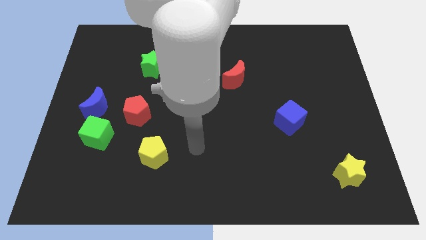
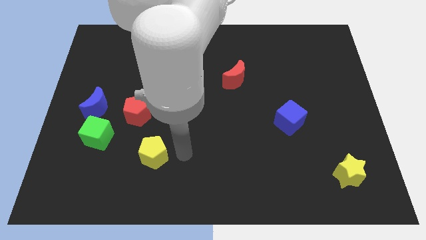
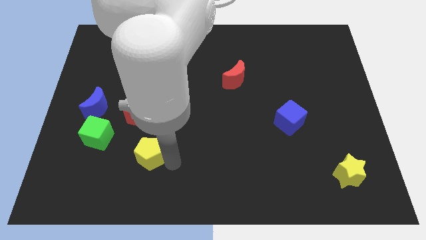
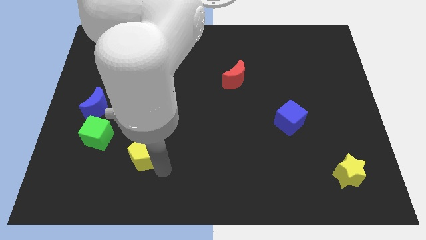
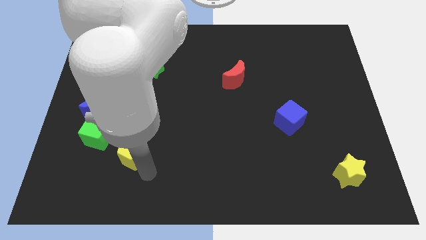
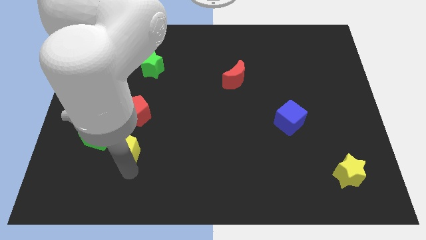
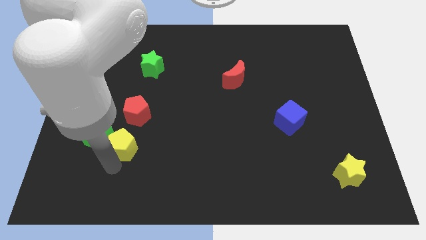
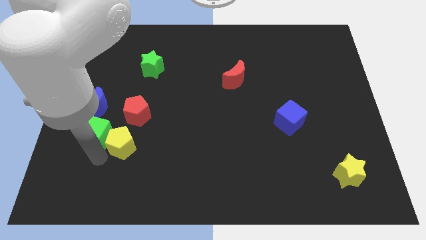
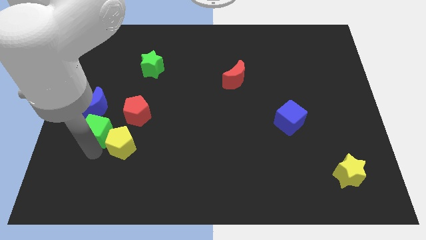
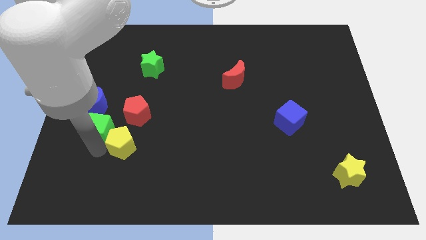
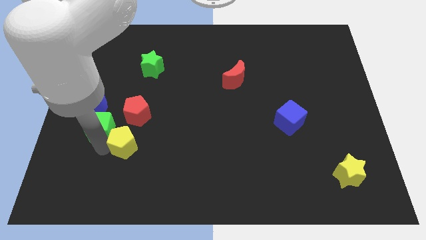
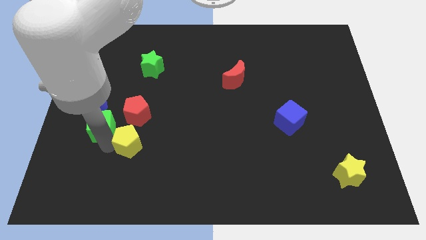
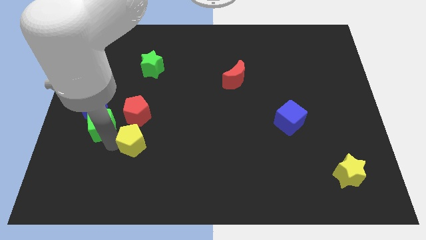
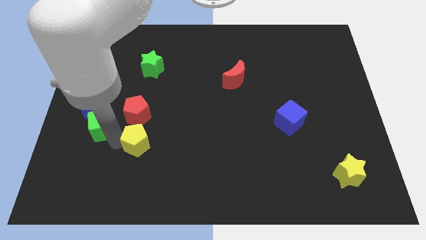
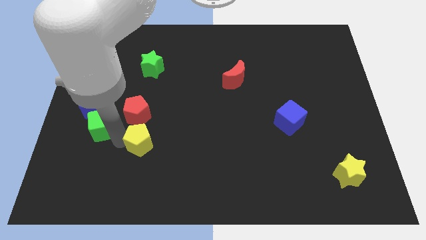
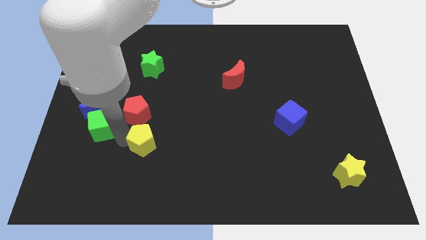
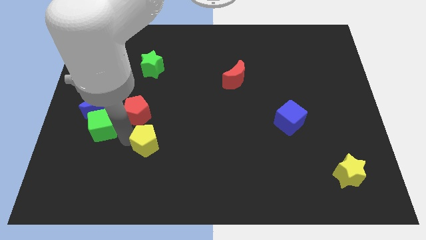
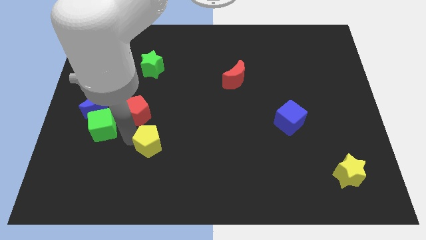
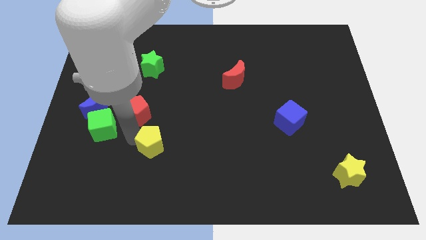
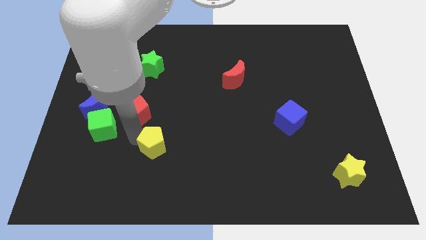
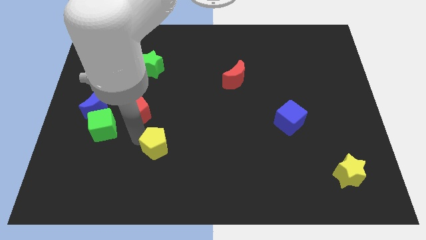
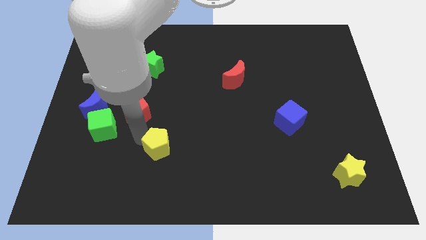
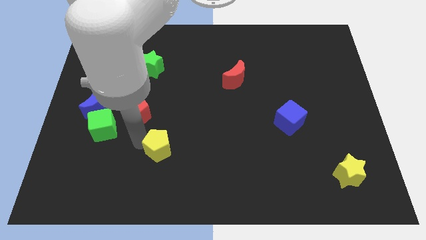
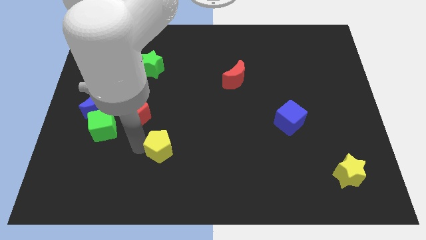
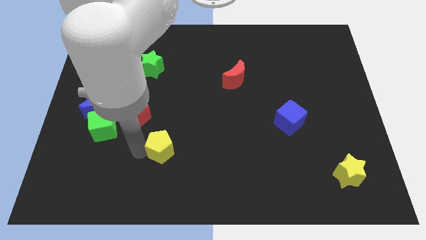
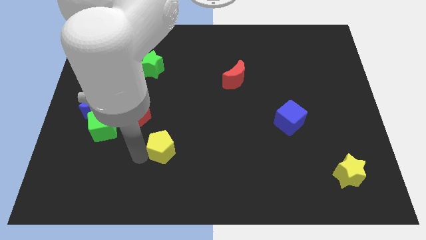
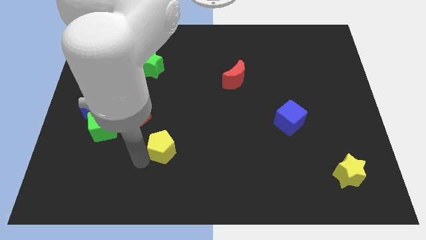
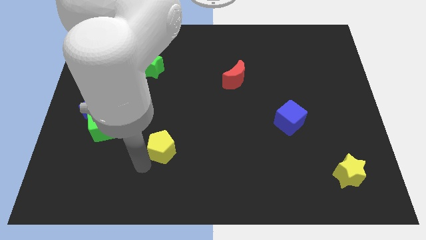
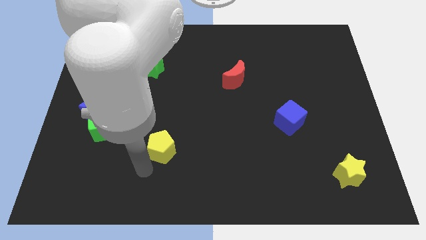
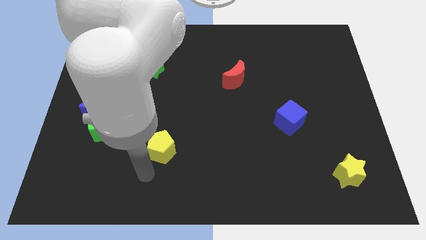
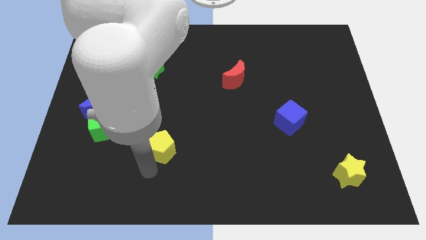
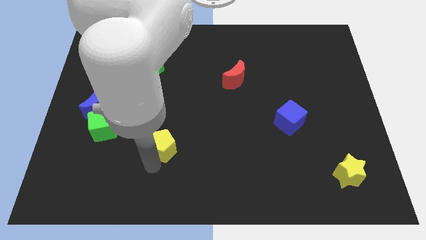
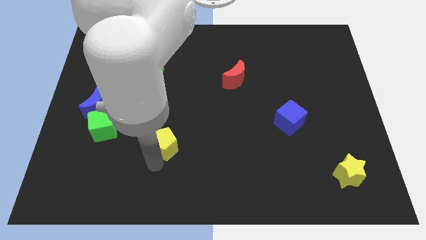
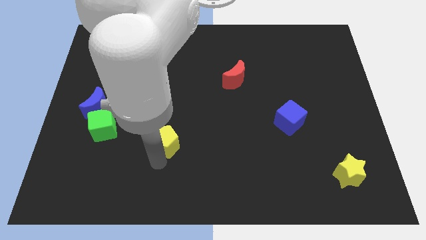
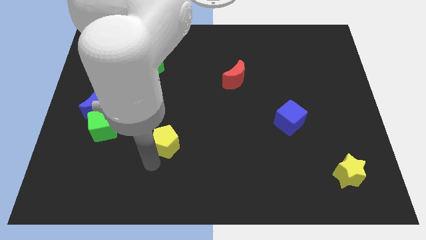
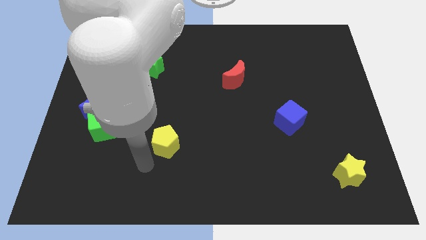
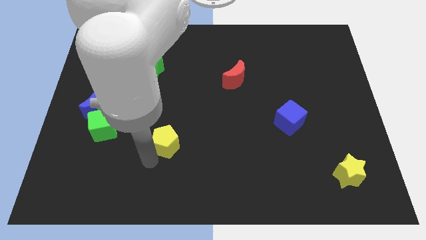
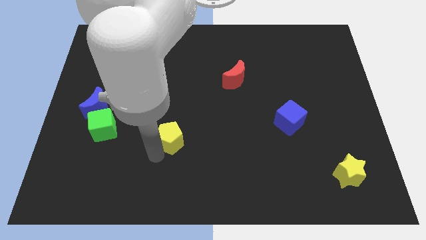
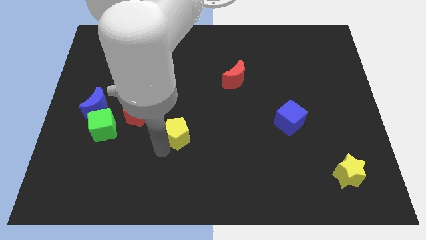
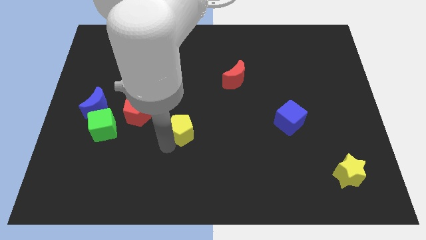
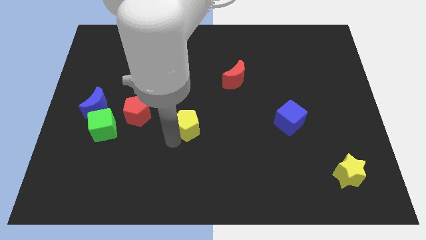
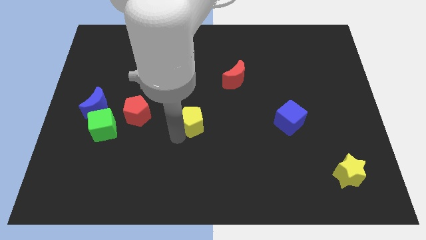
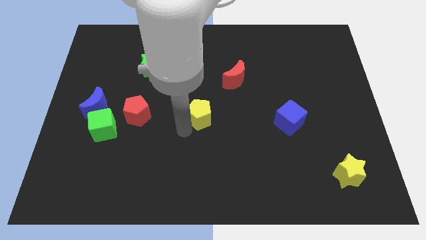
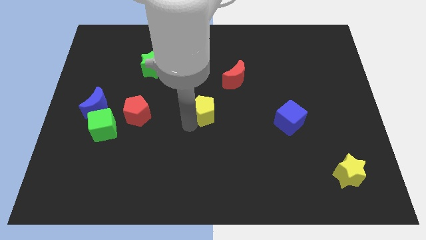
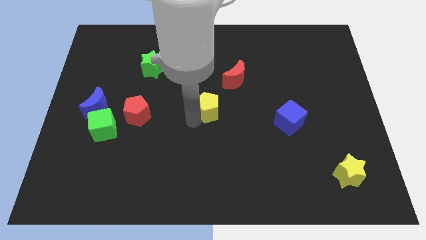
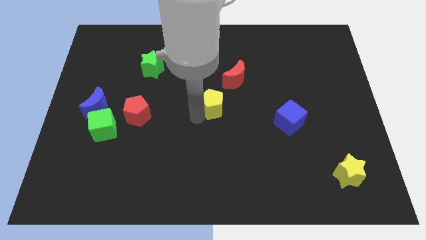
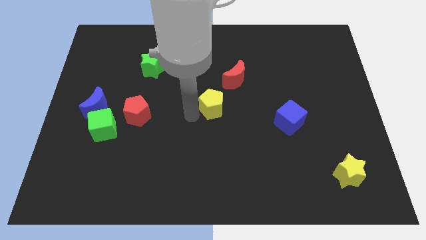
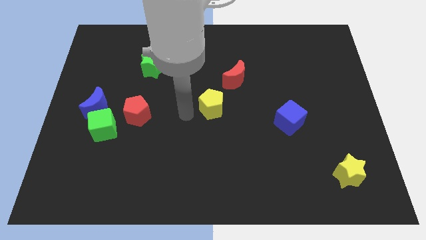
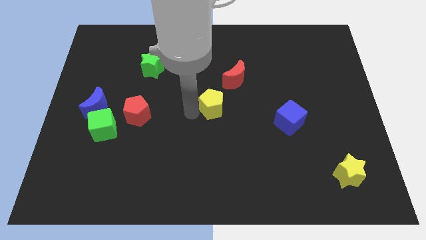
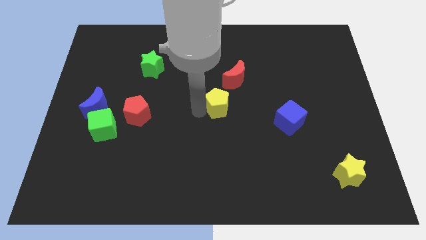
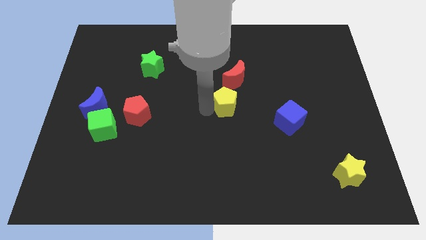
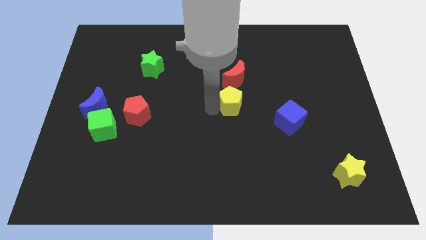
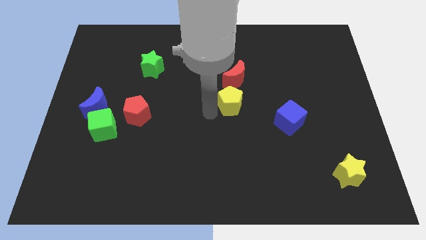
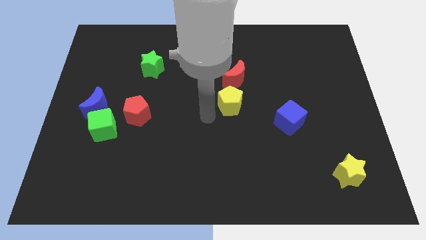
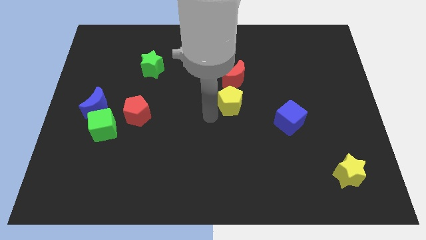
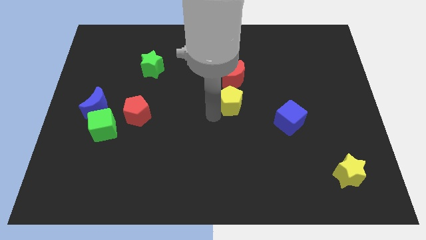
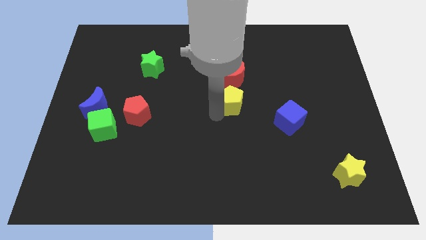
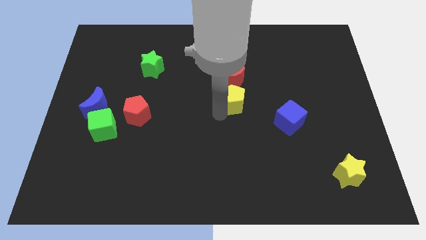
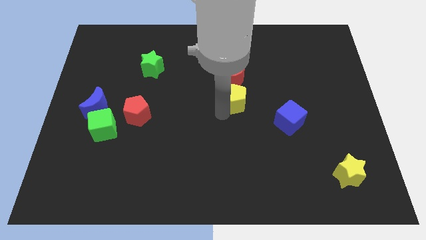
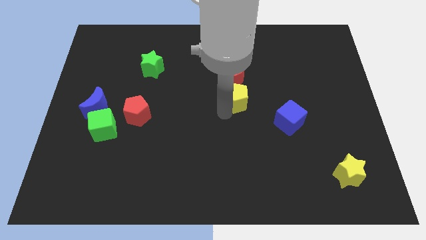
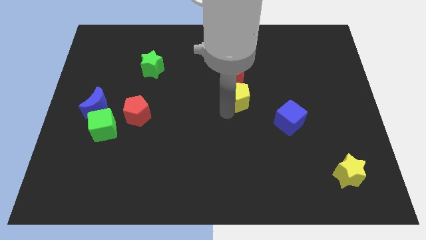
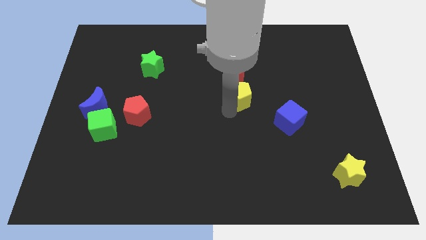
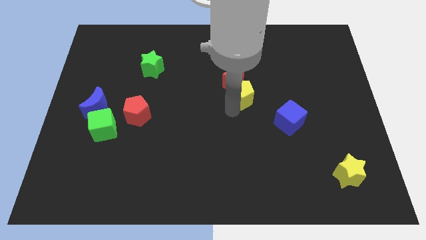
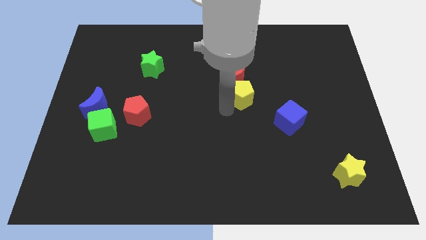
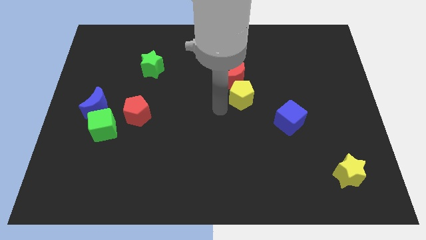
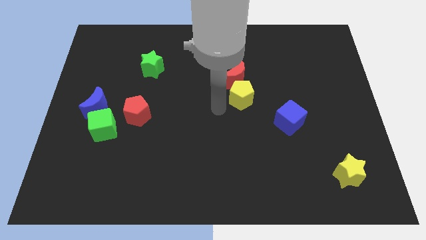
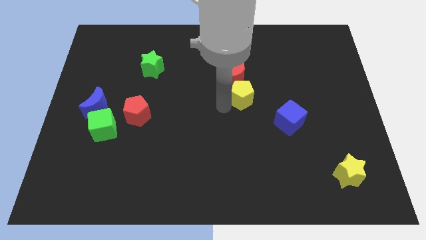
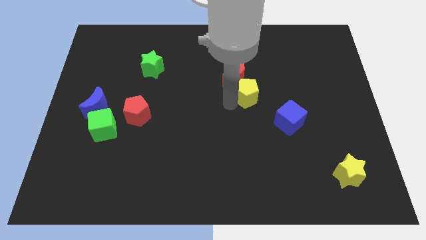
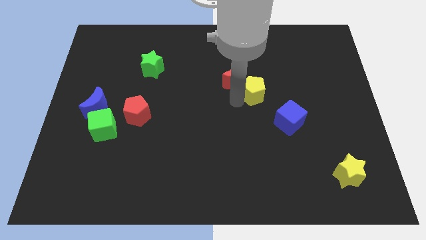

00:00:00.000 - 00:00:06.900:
push the yellow pentagon to the right side of the red moon
